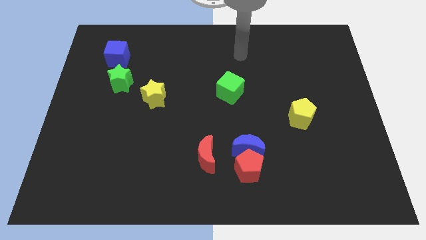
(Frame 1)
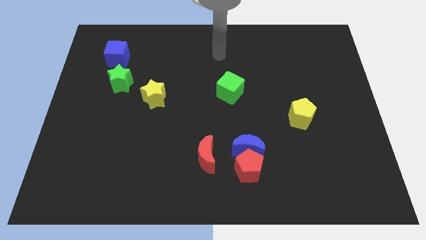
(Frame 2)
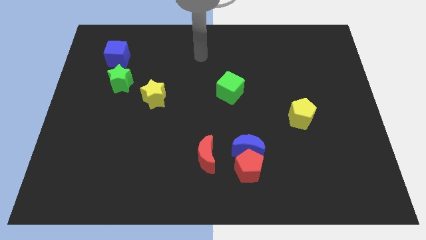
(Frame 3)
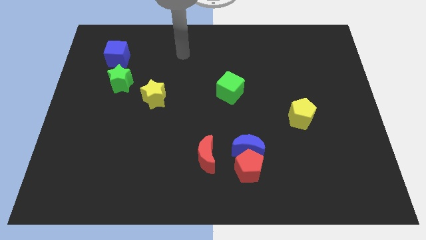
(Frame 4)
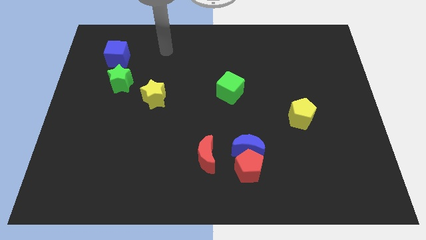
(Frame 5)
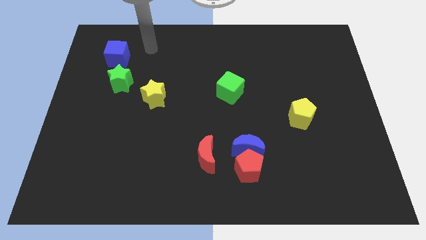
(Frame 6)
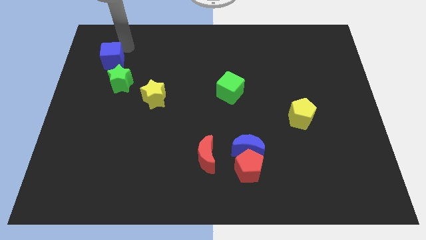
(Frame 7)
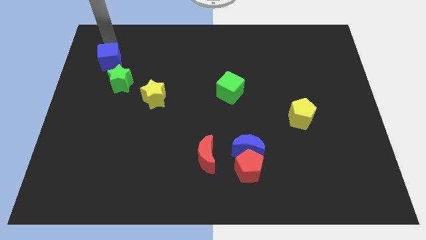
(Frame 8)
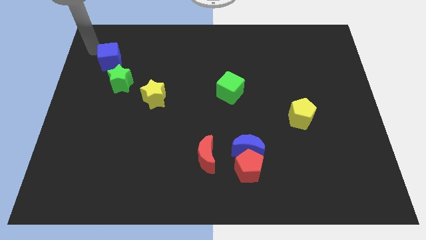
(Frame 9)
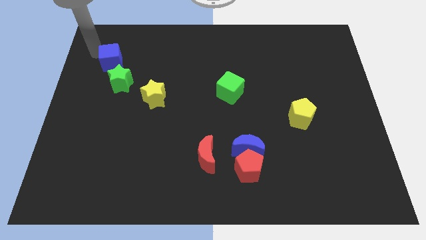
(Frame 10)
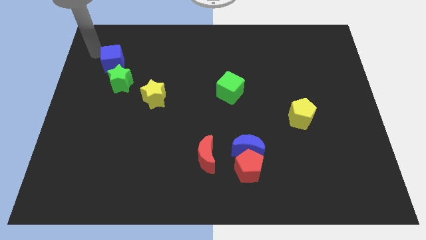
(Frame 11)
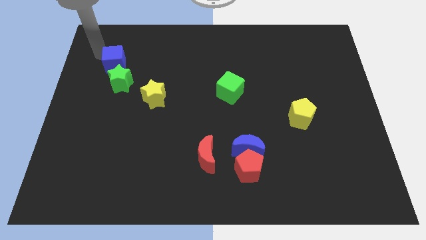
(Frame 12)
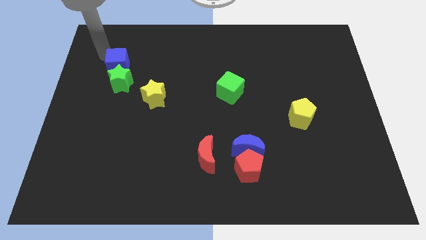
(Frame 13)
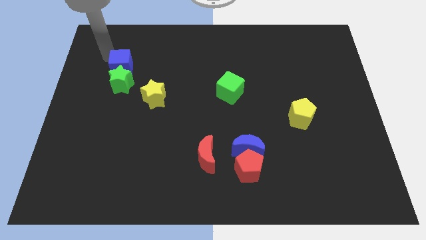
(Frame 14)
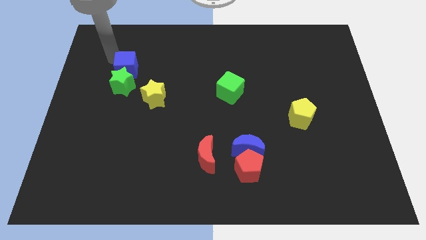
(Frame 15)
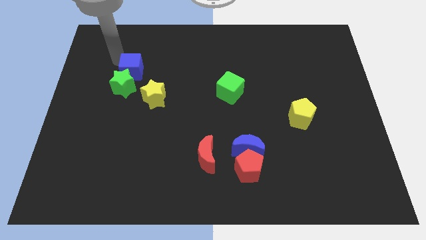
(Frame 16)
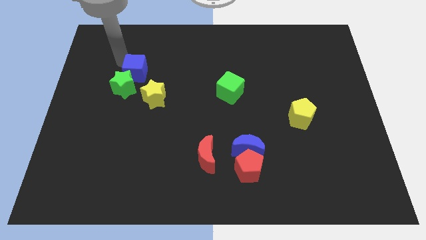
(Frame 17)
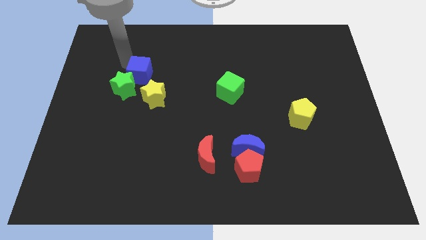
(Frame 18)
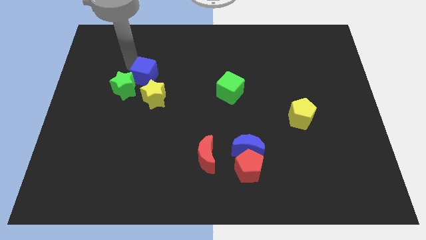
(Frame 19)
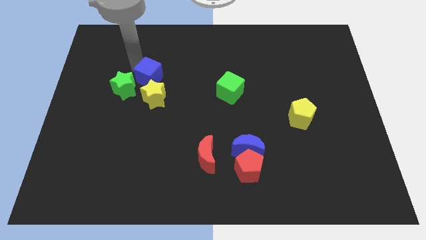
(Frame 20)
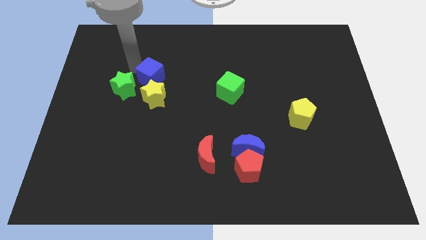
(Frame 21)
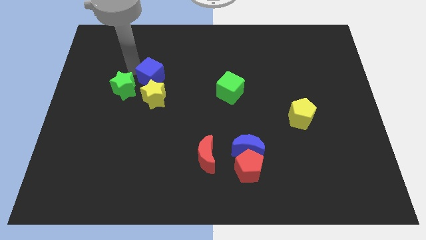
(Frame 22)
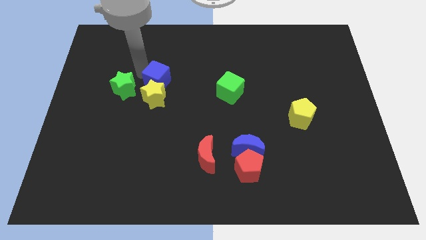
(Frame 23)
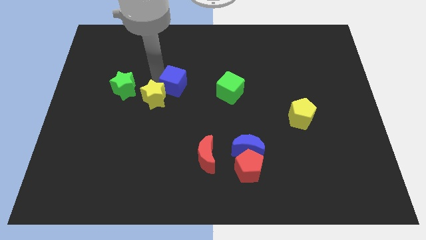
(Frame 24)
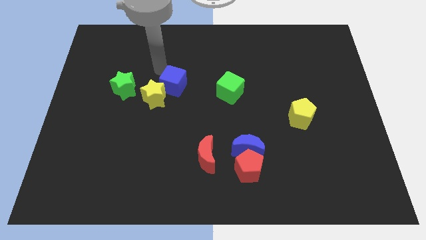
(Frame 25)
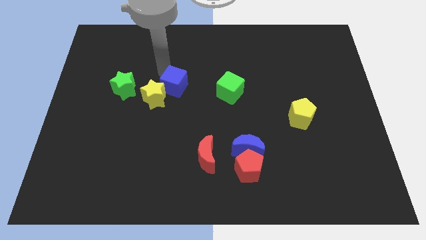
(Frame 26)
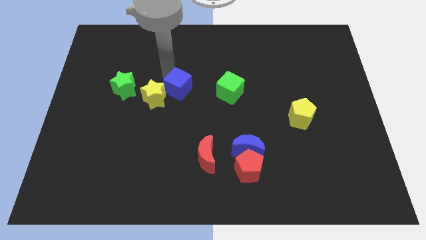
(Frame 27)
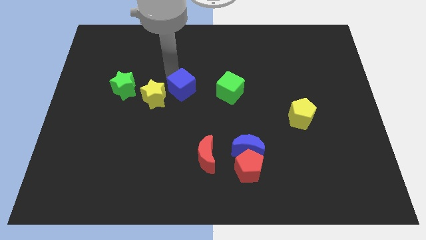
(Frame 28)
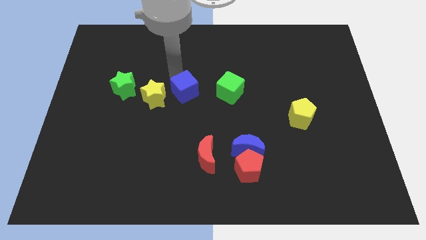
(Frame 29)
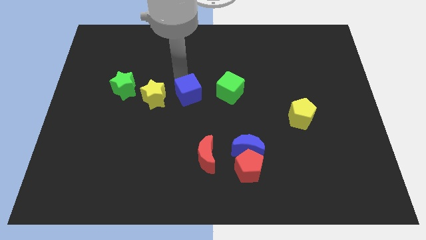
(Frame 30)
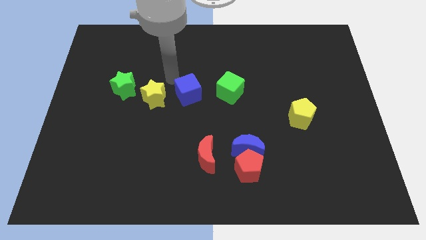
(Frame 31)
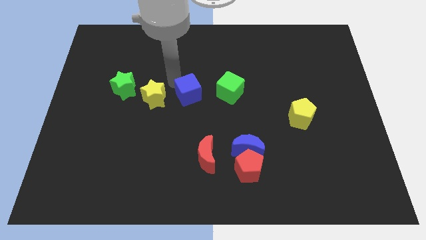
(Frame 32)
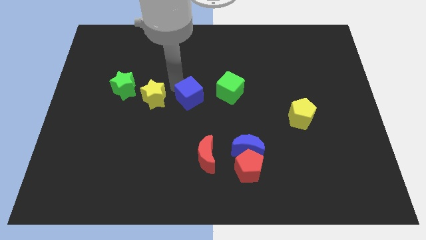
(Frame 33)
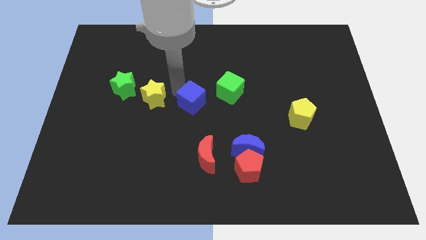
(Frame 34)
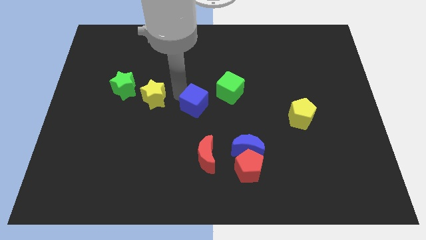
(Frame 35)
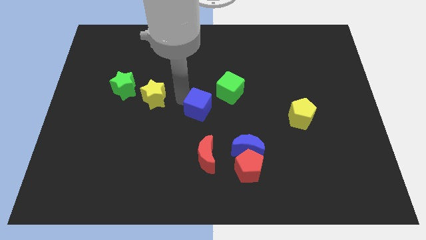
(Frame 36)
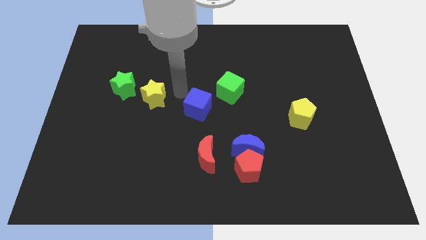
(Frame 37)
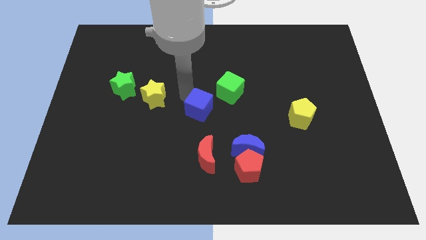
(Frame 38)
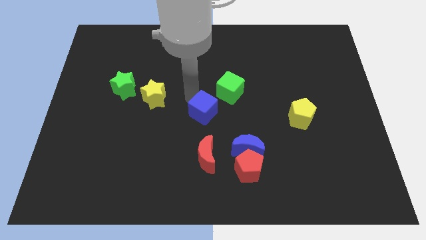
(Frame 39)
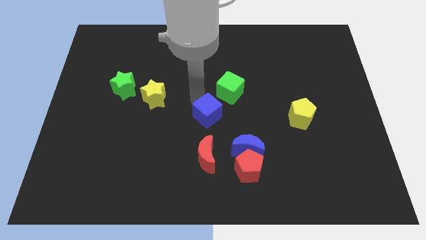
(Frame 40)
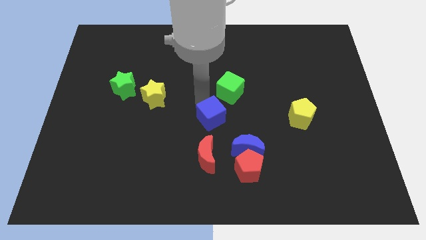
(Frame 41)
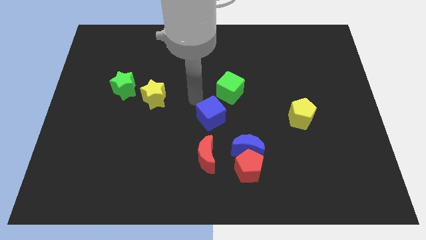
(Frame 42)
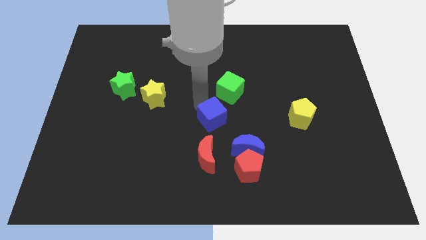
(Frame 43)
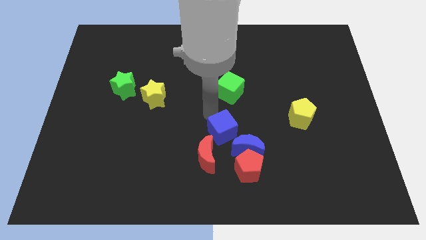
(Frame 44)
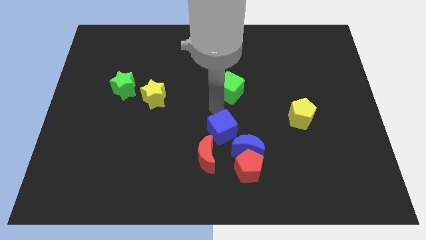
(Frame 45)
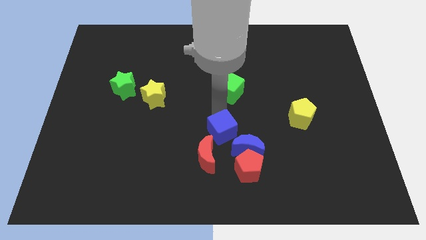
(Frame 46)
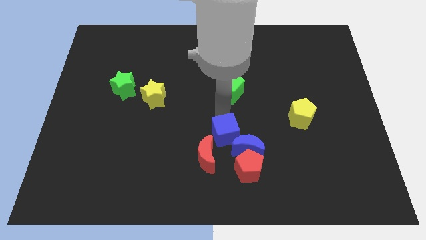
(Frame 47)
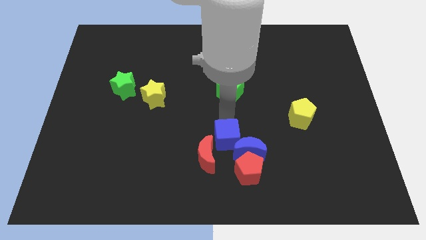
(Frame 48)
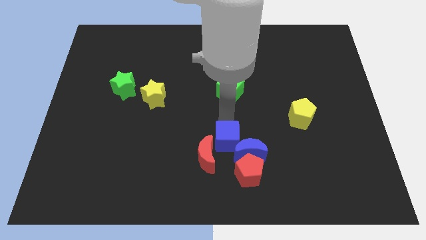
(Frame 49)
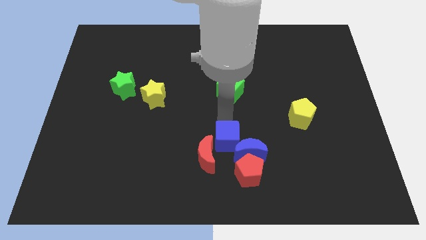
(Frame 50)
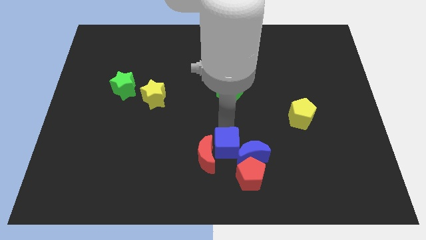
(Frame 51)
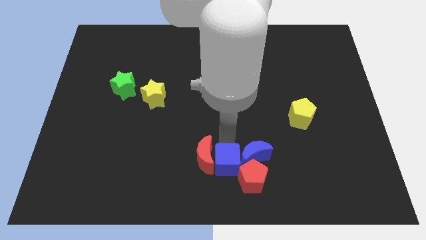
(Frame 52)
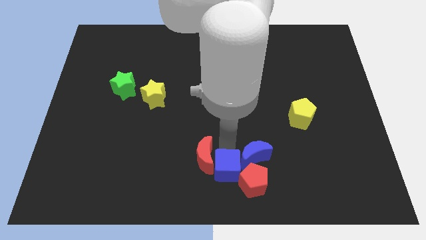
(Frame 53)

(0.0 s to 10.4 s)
slide the blue cube towards the red pentagon

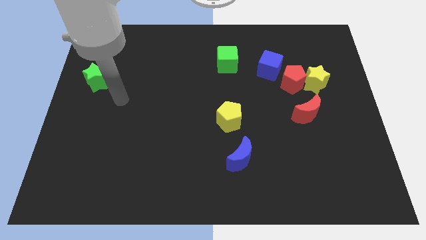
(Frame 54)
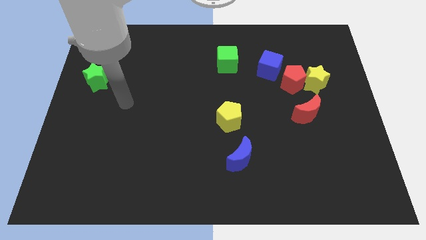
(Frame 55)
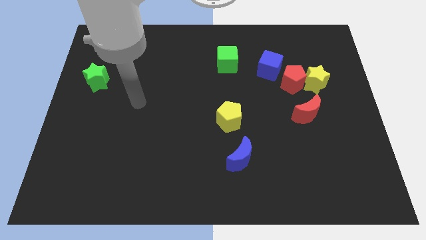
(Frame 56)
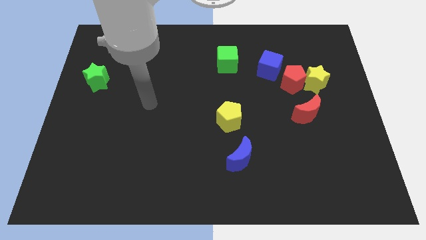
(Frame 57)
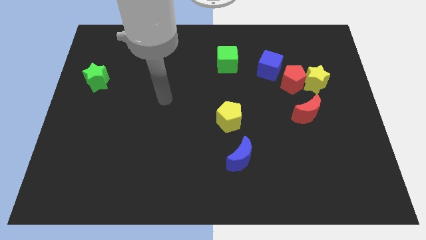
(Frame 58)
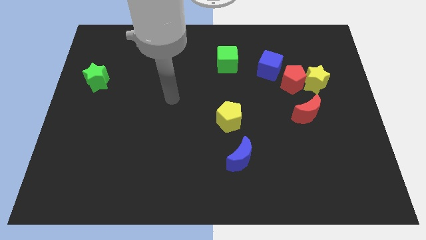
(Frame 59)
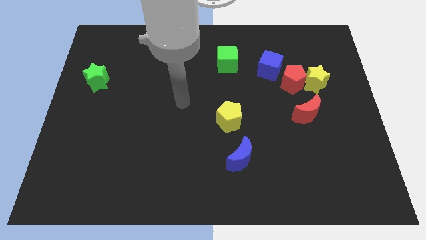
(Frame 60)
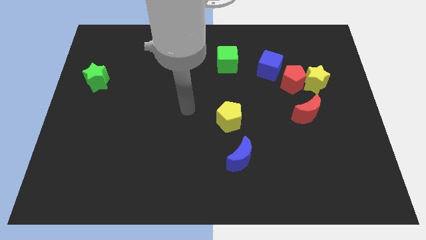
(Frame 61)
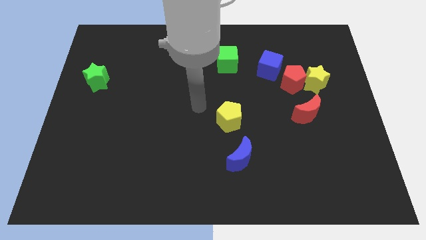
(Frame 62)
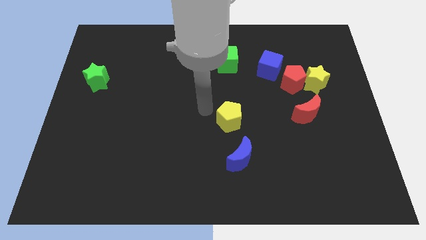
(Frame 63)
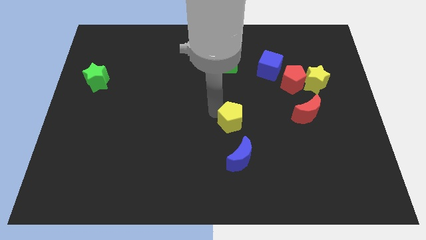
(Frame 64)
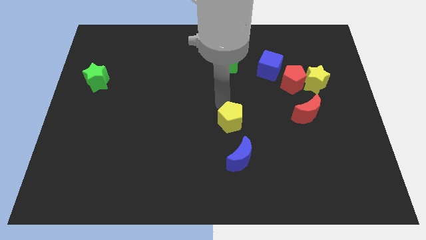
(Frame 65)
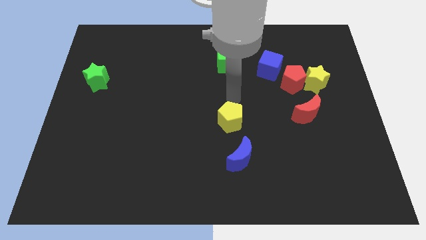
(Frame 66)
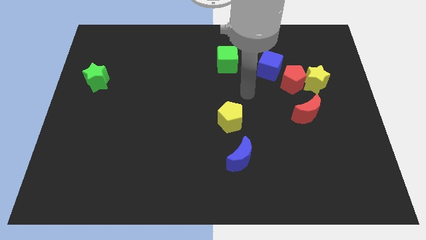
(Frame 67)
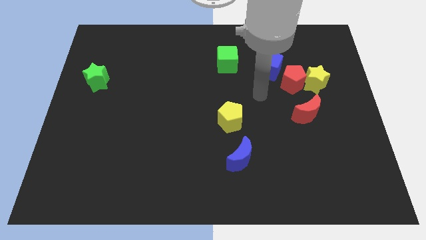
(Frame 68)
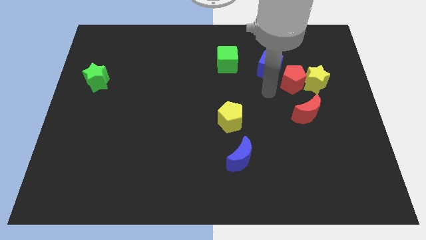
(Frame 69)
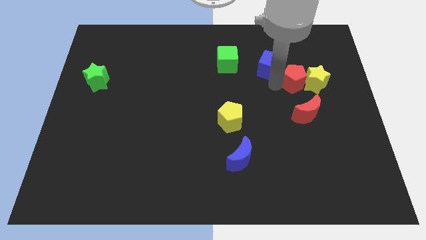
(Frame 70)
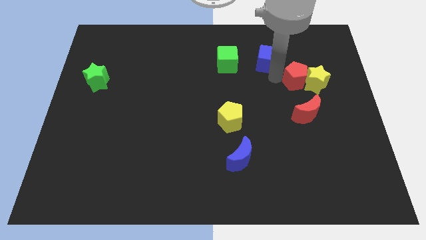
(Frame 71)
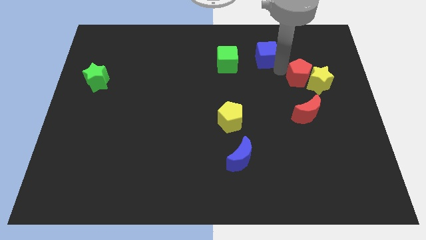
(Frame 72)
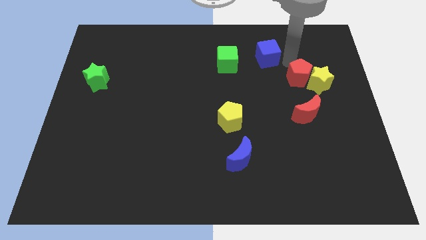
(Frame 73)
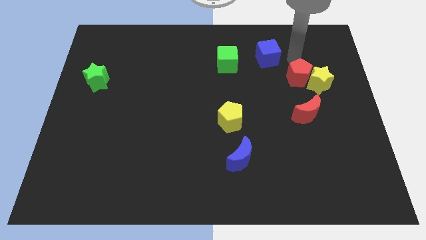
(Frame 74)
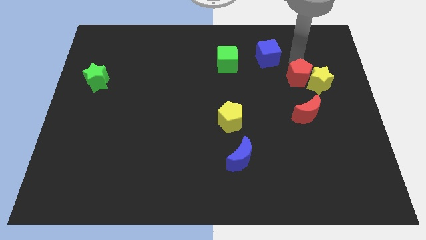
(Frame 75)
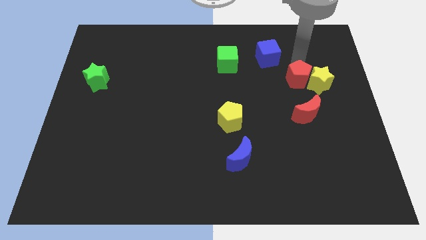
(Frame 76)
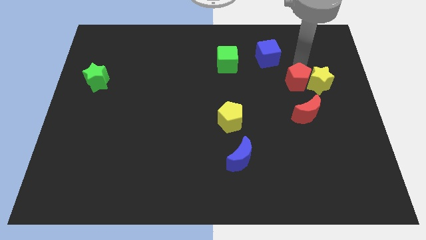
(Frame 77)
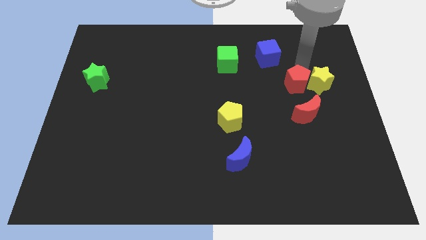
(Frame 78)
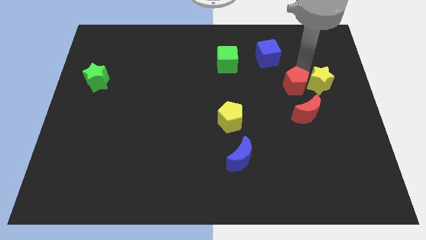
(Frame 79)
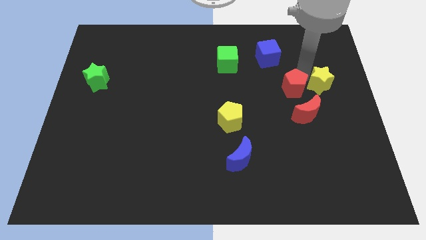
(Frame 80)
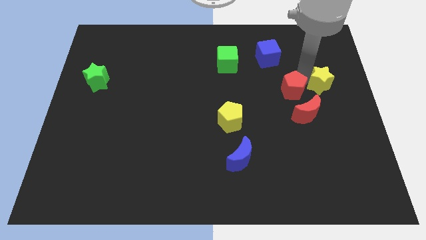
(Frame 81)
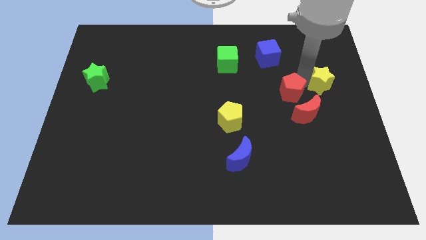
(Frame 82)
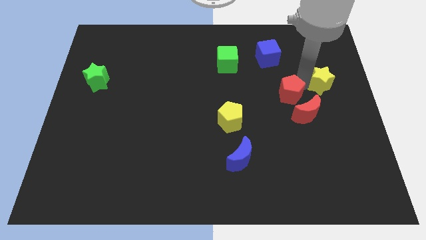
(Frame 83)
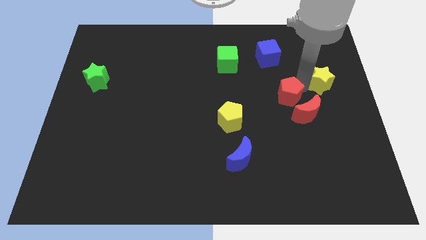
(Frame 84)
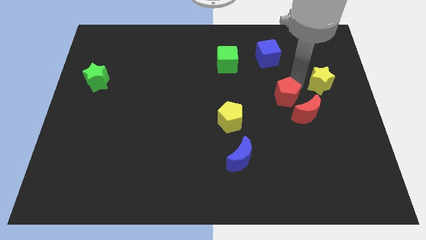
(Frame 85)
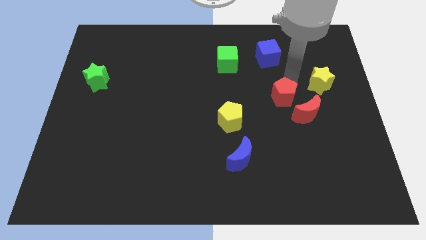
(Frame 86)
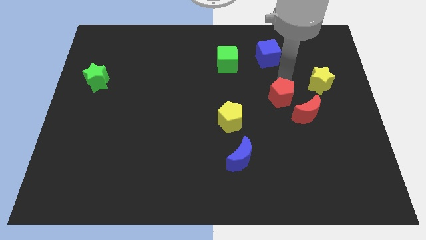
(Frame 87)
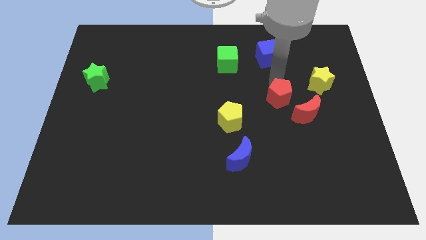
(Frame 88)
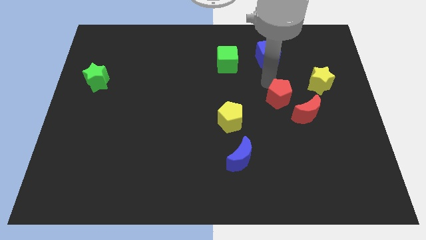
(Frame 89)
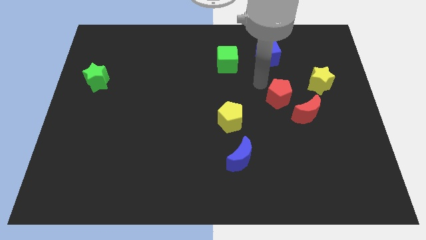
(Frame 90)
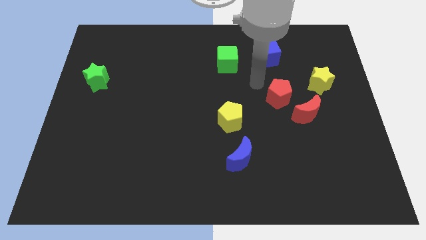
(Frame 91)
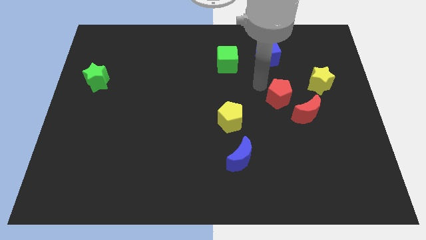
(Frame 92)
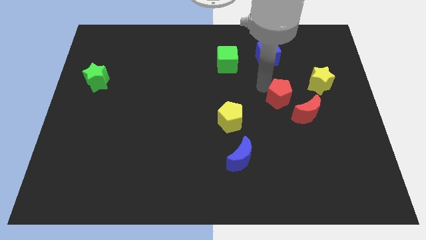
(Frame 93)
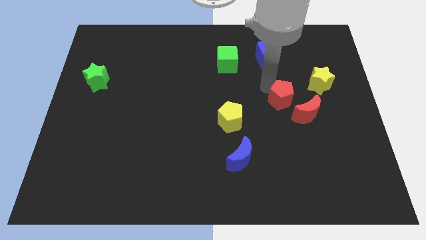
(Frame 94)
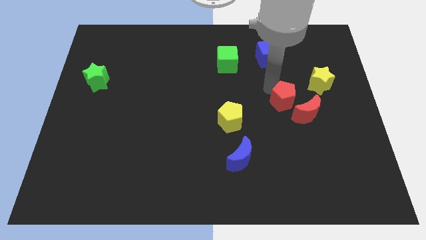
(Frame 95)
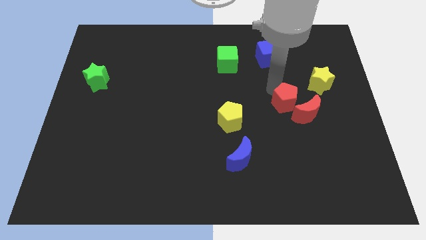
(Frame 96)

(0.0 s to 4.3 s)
put the red pentagon close to the red moon
